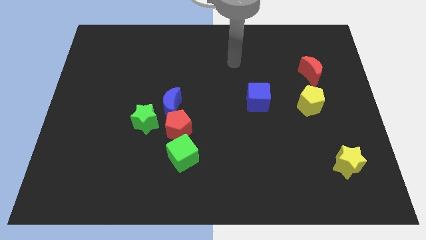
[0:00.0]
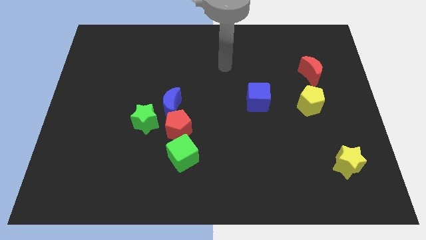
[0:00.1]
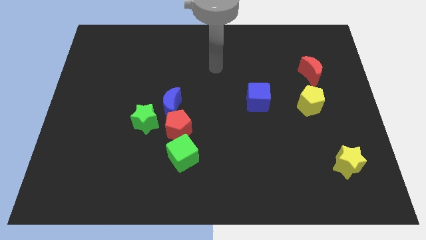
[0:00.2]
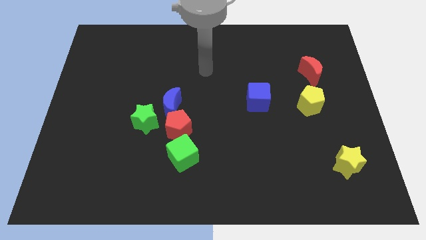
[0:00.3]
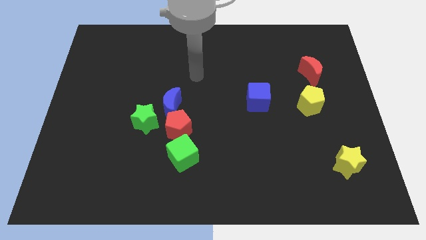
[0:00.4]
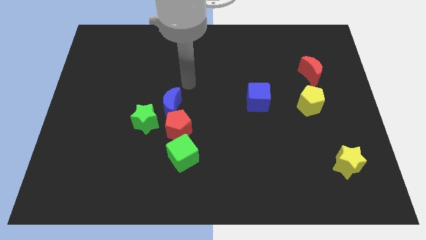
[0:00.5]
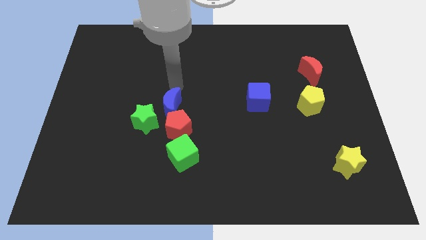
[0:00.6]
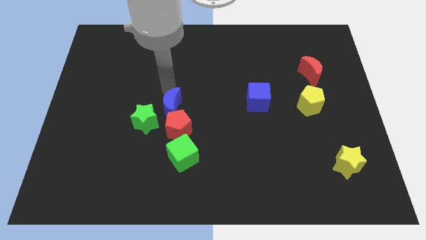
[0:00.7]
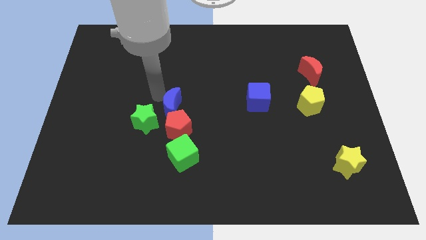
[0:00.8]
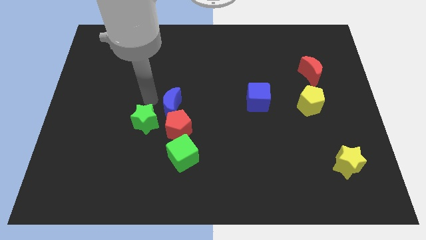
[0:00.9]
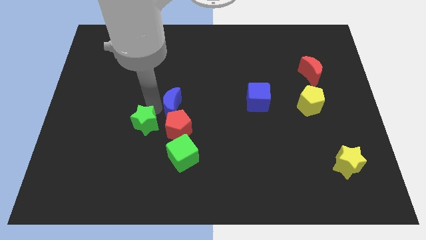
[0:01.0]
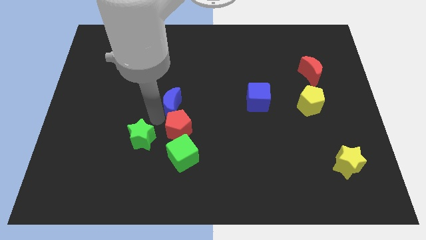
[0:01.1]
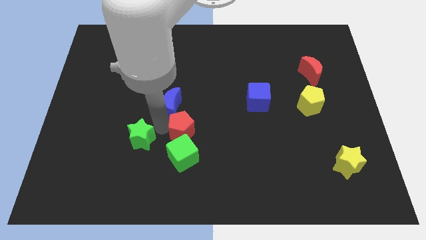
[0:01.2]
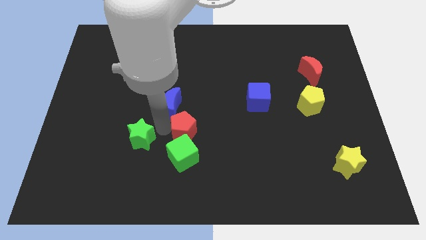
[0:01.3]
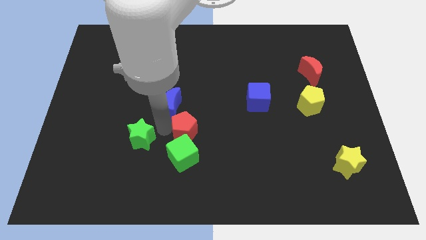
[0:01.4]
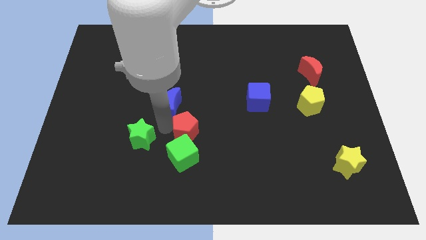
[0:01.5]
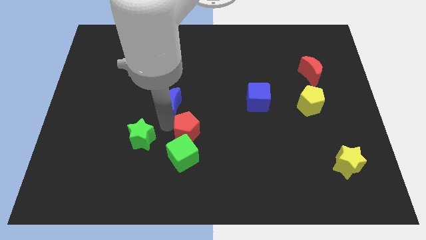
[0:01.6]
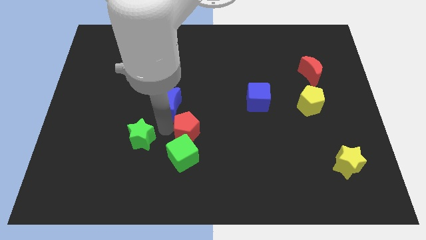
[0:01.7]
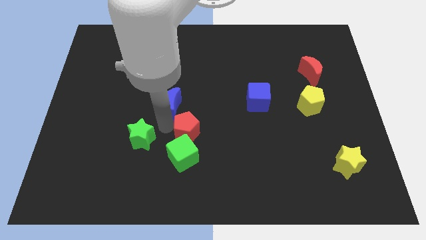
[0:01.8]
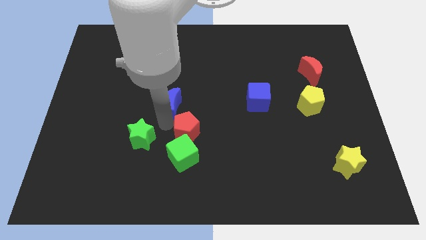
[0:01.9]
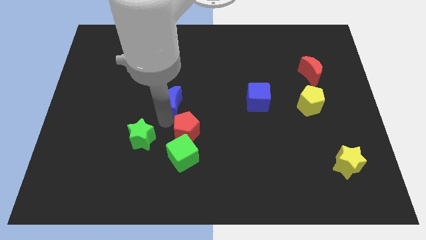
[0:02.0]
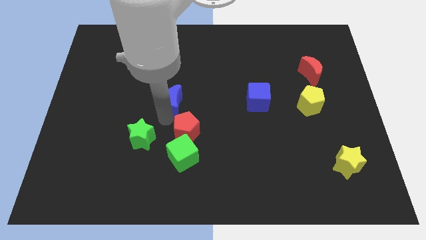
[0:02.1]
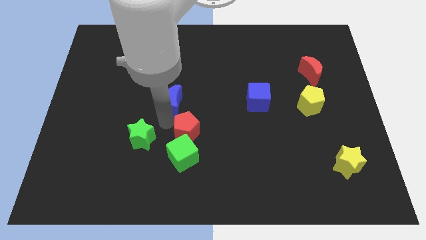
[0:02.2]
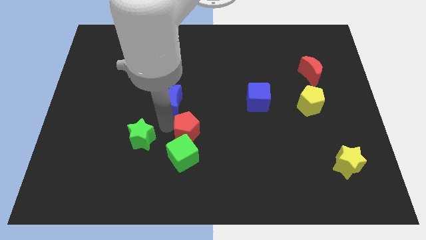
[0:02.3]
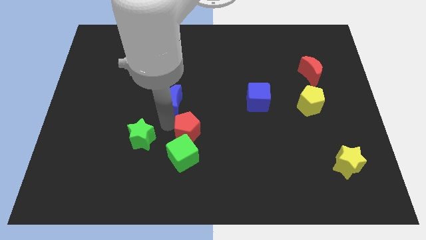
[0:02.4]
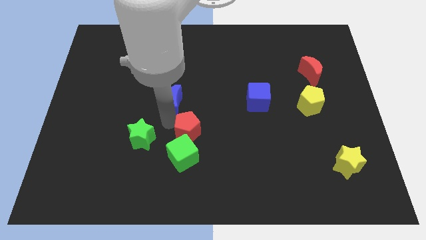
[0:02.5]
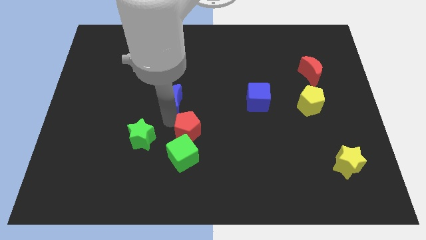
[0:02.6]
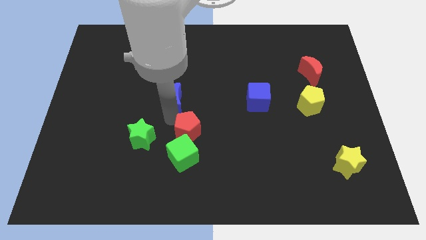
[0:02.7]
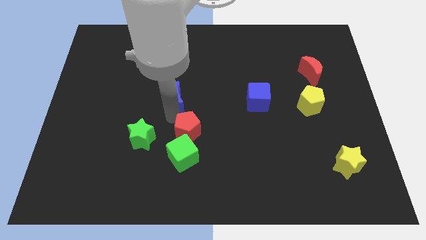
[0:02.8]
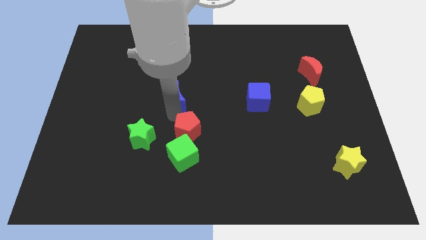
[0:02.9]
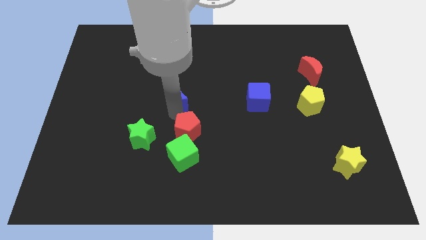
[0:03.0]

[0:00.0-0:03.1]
separate the blue moon from the red pentagon and green star

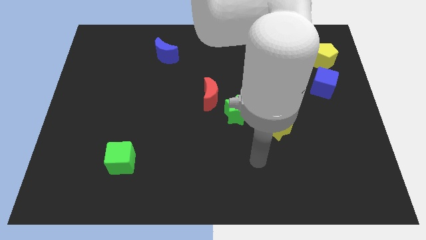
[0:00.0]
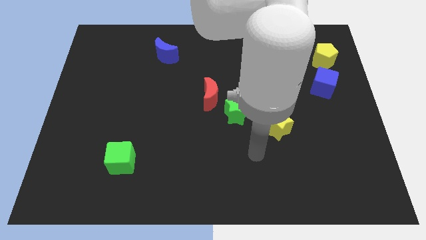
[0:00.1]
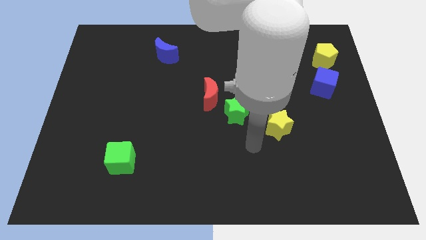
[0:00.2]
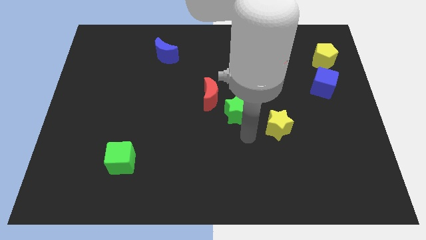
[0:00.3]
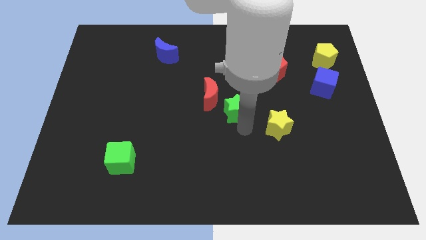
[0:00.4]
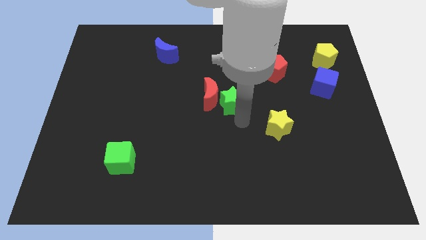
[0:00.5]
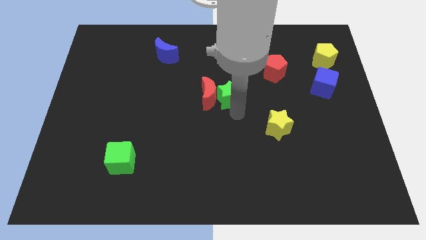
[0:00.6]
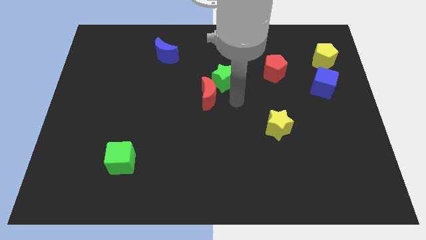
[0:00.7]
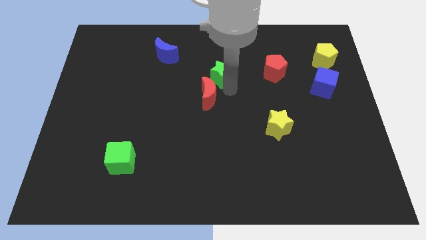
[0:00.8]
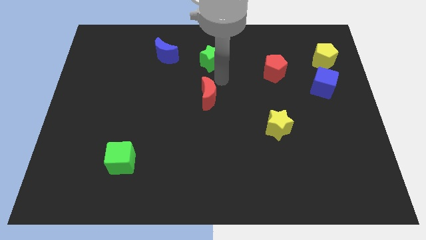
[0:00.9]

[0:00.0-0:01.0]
separate the red moon from the green star

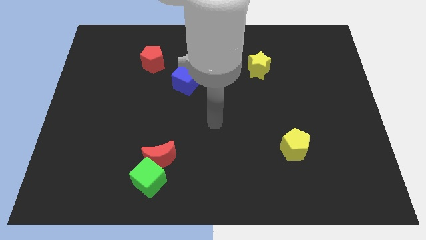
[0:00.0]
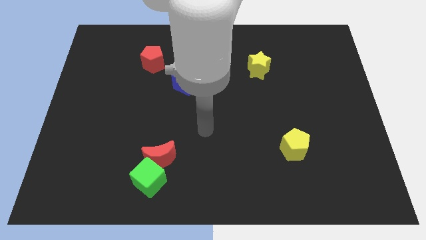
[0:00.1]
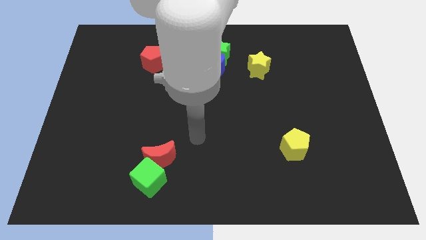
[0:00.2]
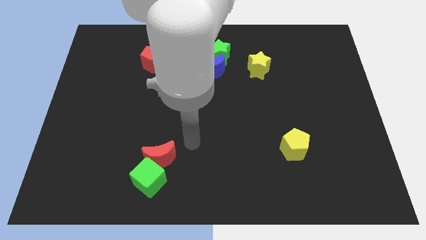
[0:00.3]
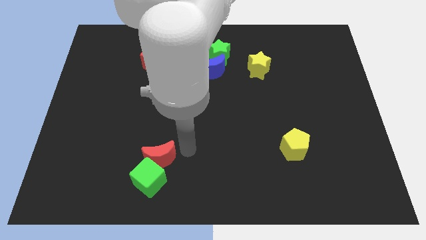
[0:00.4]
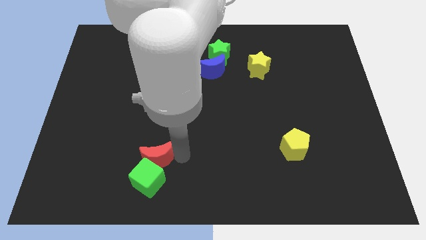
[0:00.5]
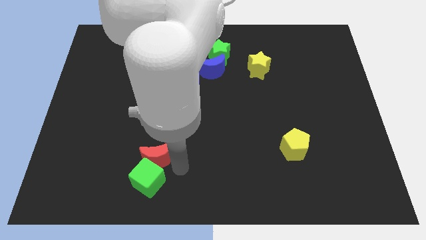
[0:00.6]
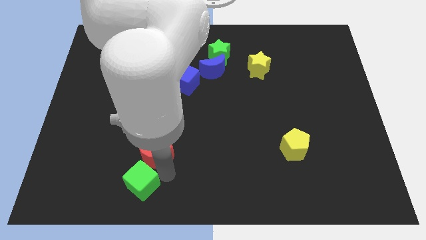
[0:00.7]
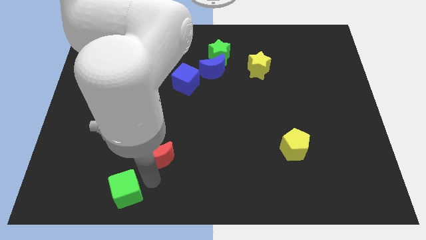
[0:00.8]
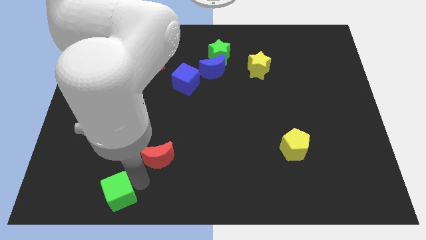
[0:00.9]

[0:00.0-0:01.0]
separate the red moon from the green cube

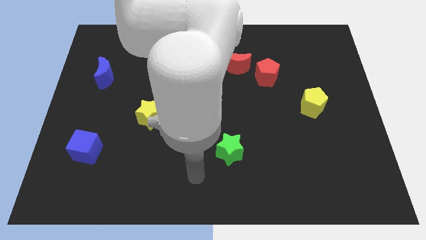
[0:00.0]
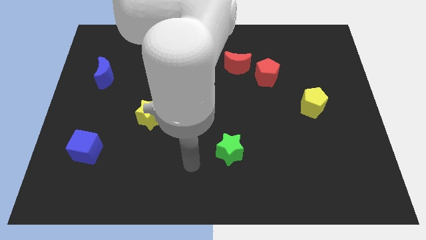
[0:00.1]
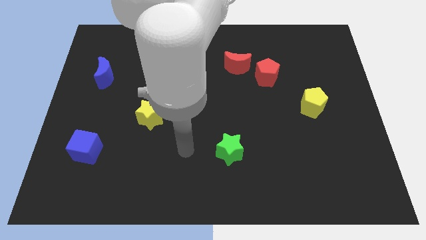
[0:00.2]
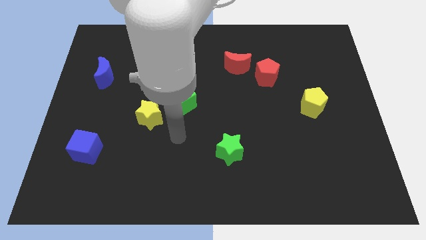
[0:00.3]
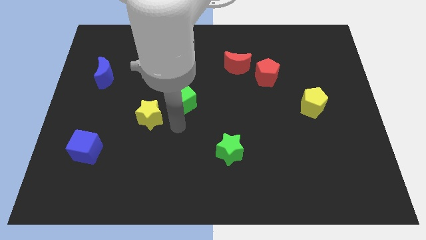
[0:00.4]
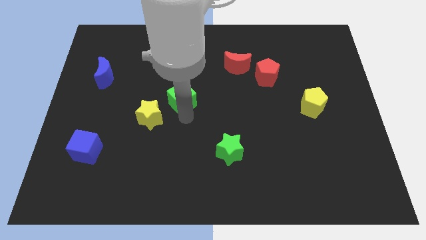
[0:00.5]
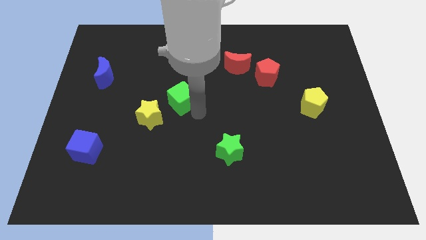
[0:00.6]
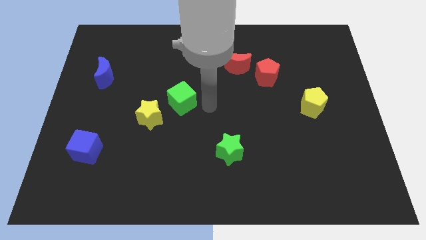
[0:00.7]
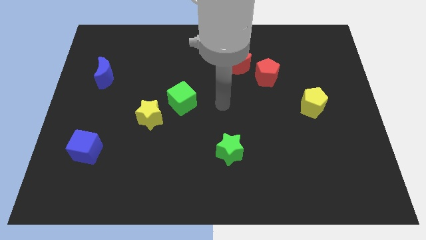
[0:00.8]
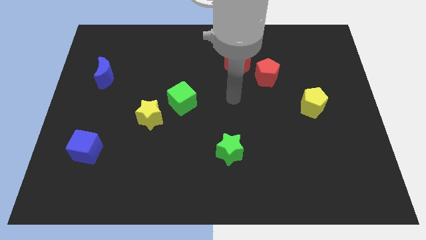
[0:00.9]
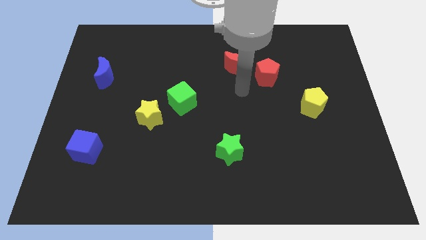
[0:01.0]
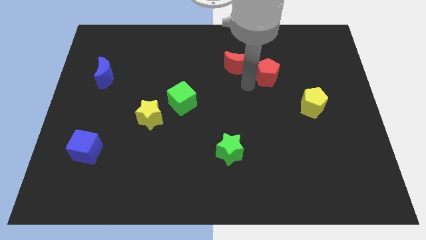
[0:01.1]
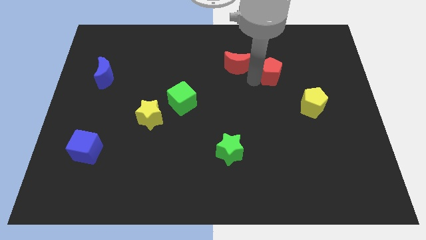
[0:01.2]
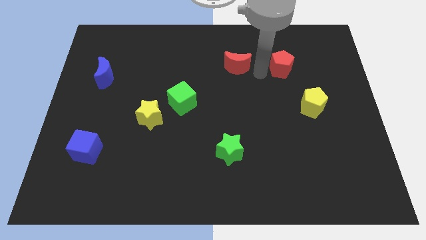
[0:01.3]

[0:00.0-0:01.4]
separate the red moon from the red pentagon

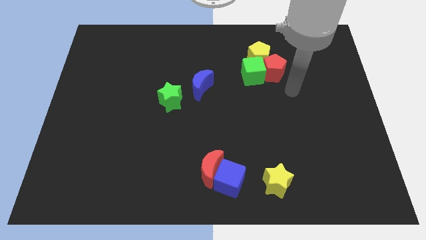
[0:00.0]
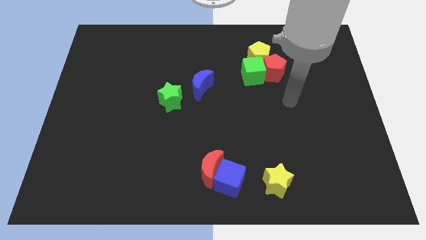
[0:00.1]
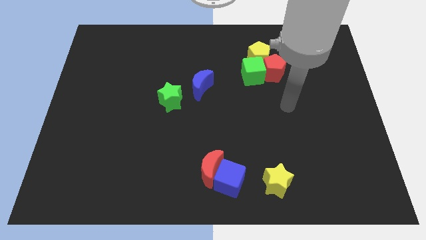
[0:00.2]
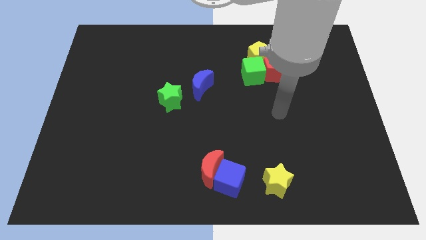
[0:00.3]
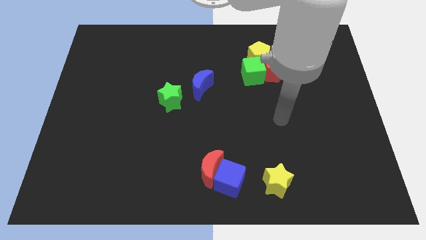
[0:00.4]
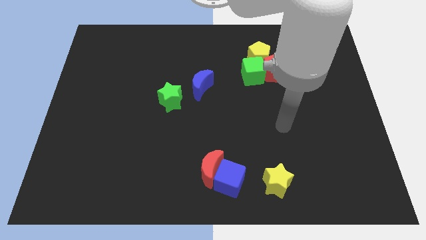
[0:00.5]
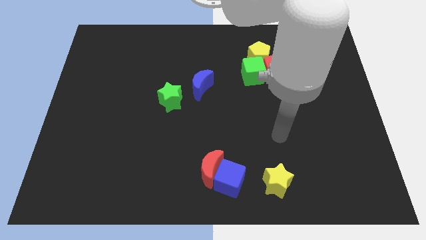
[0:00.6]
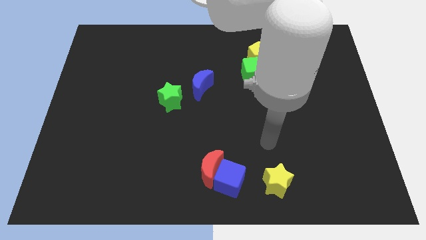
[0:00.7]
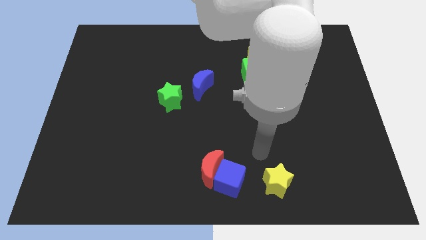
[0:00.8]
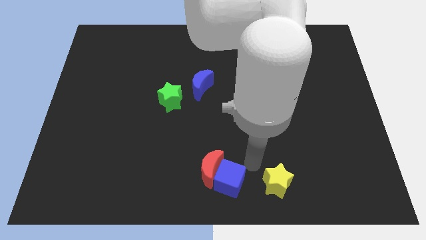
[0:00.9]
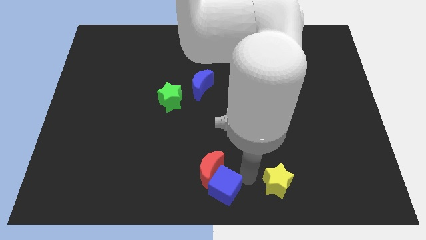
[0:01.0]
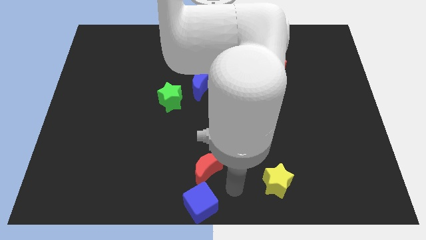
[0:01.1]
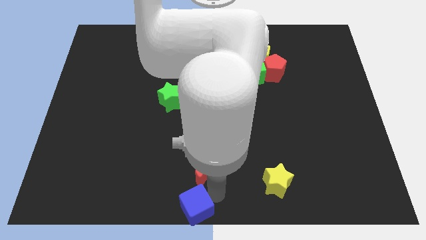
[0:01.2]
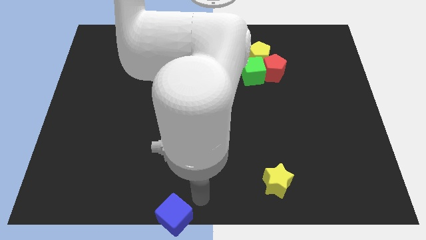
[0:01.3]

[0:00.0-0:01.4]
move the red moon away from the blue cube

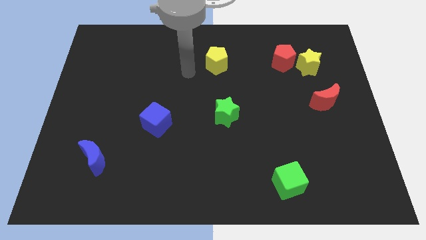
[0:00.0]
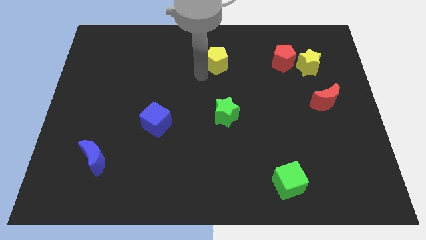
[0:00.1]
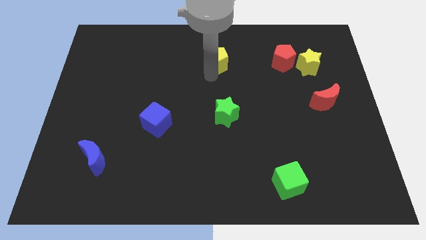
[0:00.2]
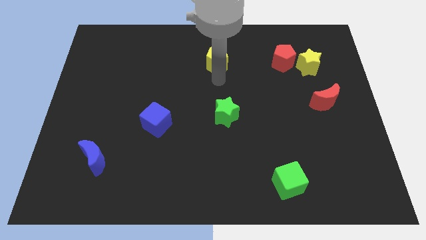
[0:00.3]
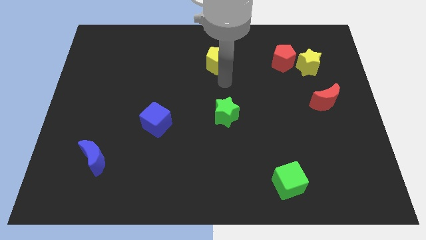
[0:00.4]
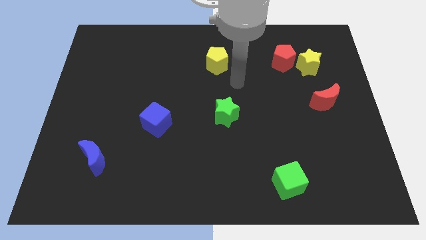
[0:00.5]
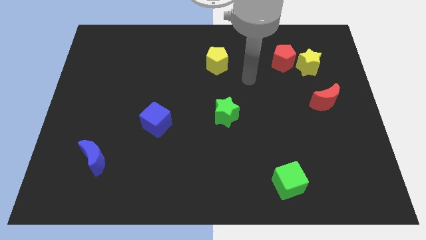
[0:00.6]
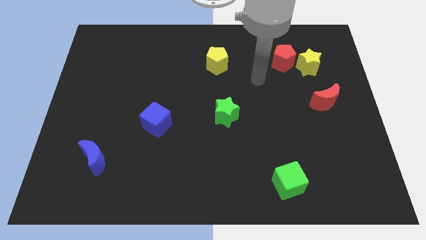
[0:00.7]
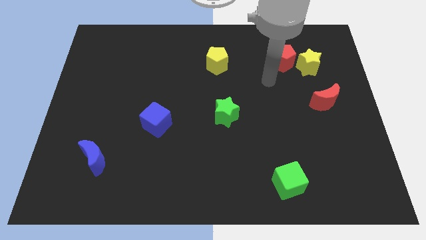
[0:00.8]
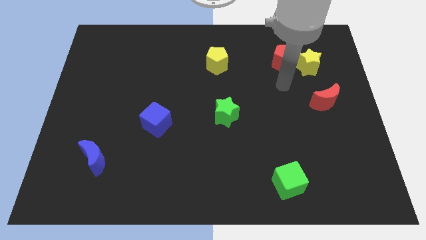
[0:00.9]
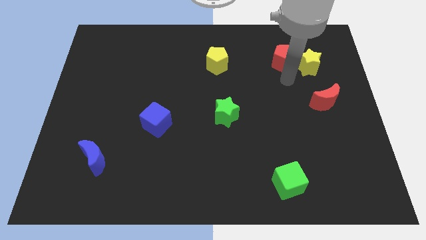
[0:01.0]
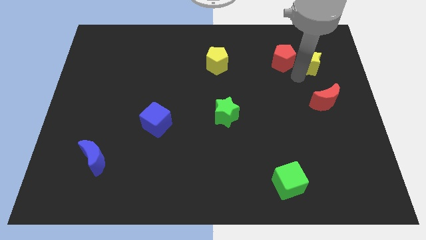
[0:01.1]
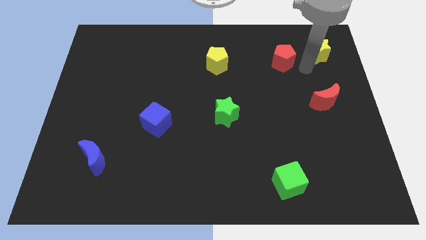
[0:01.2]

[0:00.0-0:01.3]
move the red pentagon away from the yellow star

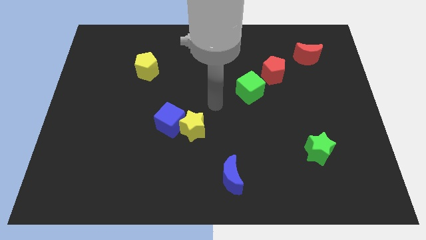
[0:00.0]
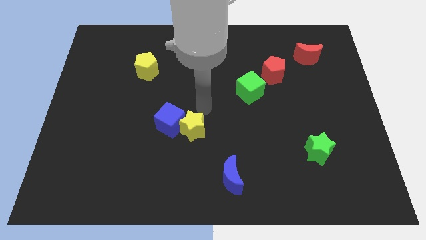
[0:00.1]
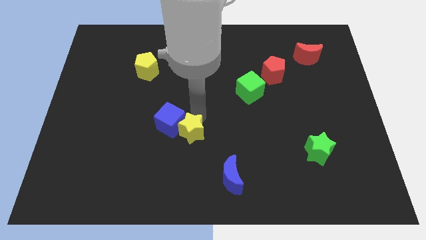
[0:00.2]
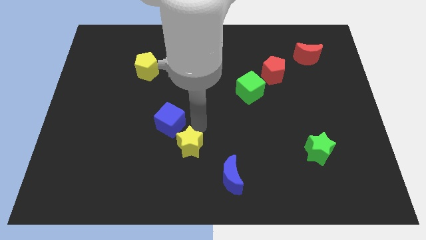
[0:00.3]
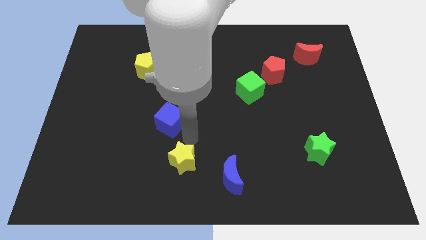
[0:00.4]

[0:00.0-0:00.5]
pull the blue cube apart from the yellow star
